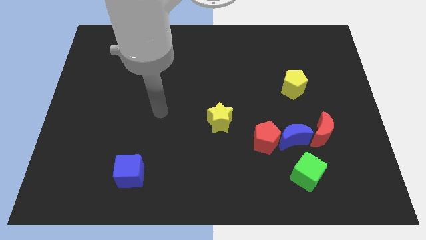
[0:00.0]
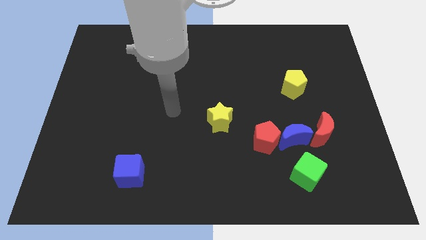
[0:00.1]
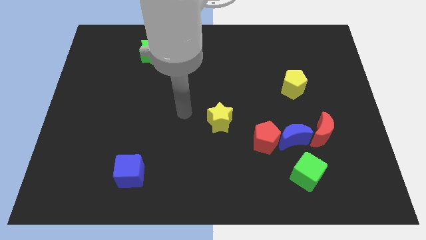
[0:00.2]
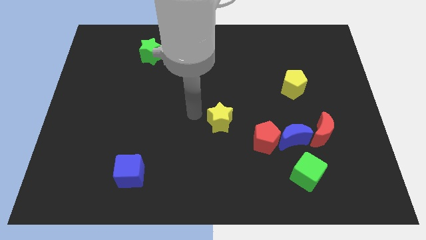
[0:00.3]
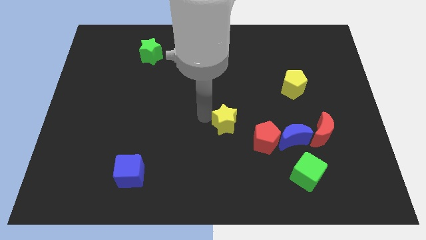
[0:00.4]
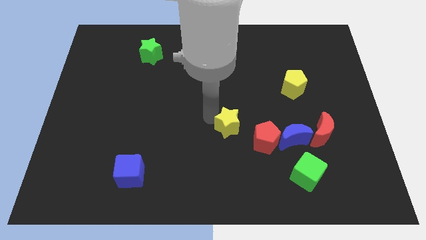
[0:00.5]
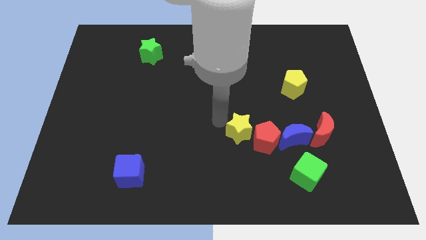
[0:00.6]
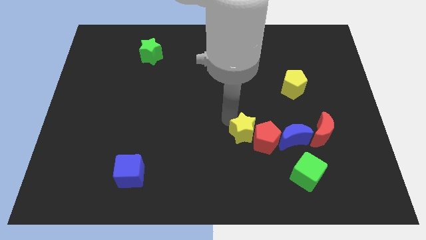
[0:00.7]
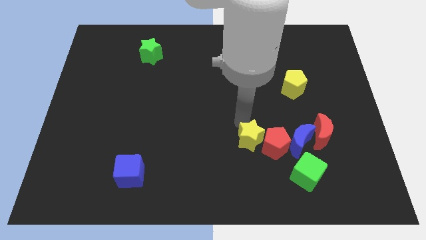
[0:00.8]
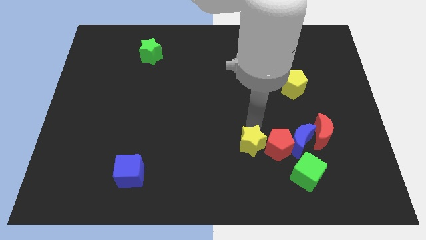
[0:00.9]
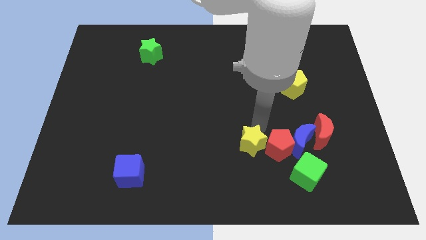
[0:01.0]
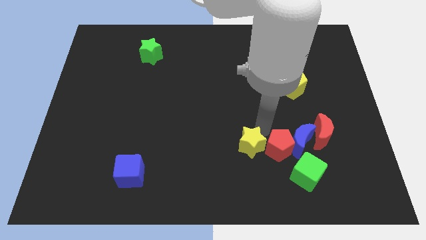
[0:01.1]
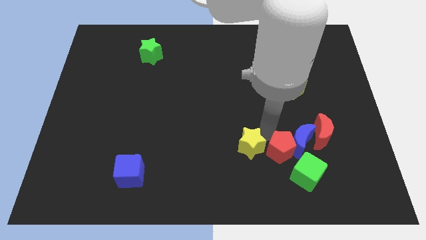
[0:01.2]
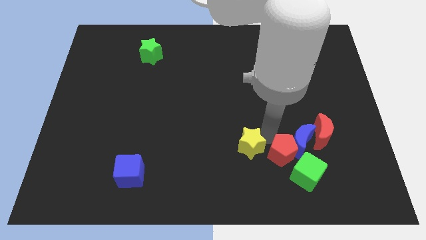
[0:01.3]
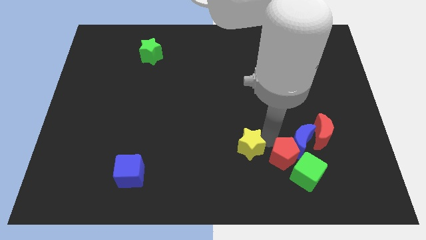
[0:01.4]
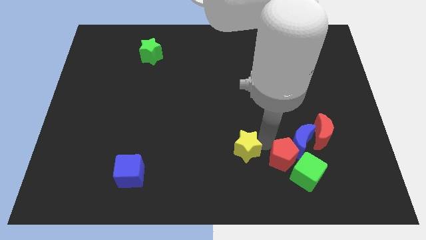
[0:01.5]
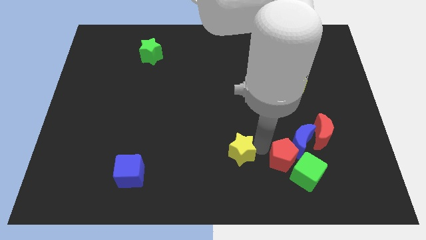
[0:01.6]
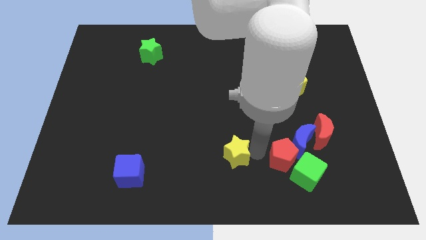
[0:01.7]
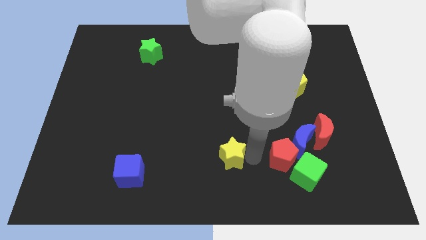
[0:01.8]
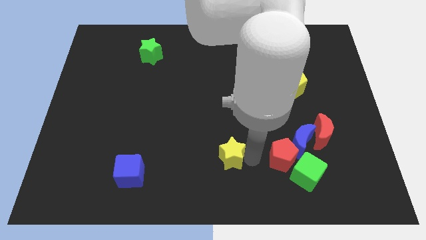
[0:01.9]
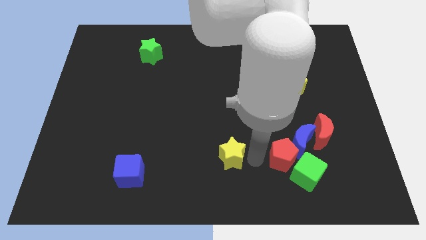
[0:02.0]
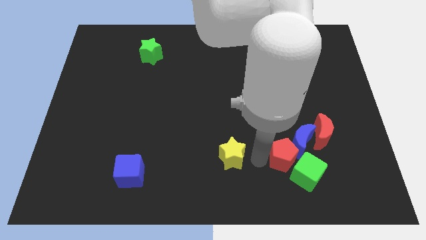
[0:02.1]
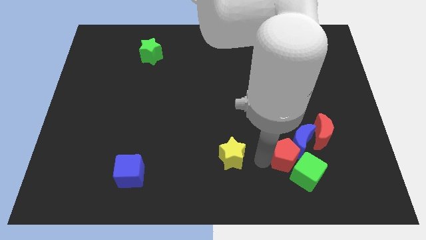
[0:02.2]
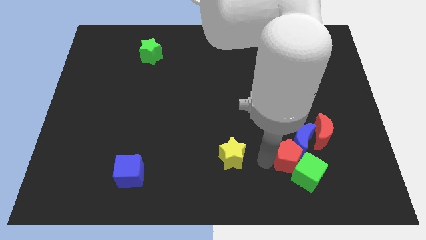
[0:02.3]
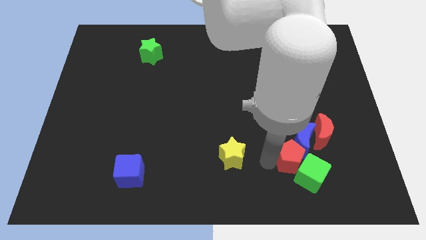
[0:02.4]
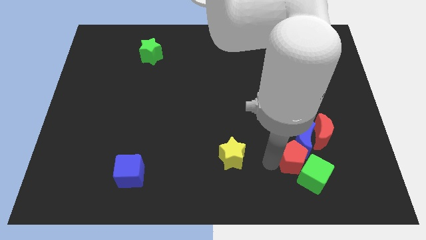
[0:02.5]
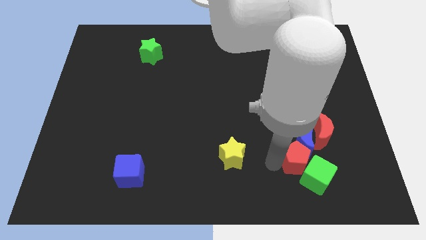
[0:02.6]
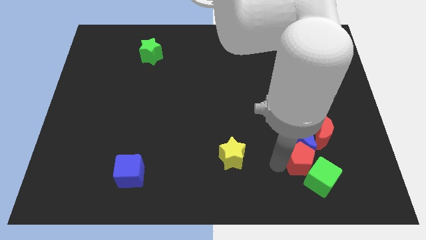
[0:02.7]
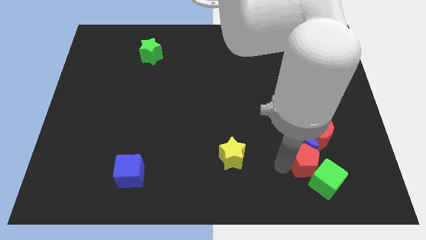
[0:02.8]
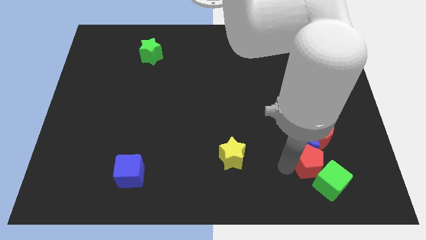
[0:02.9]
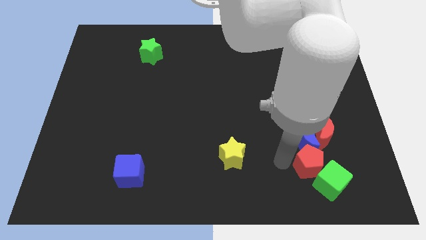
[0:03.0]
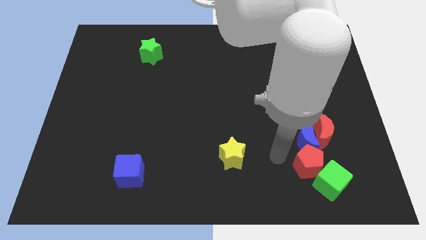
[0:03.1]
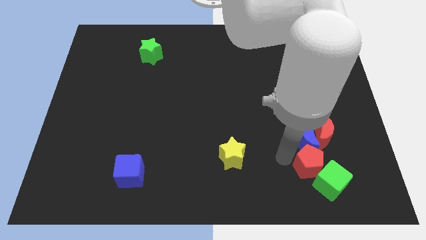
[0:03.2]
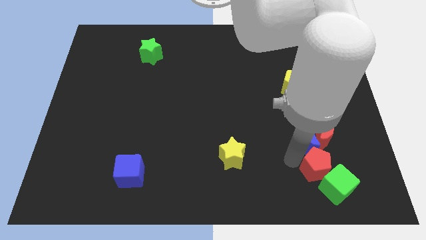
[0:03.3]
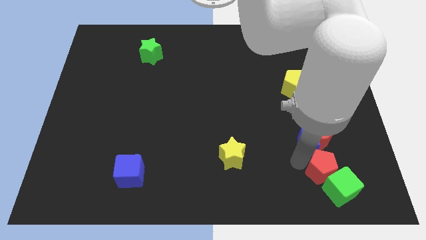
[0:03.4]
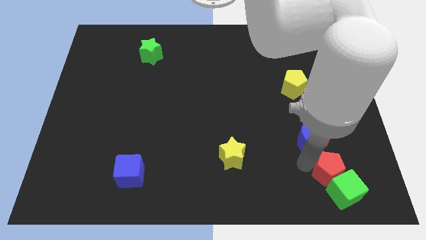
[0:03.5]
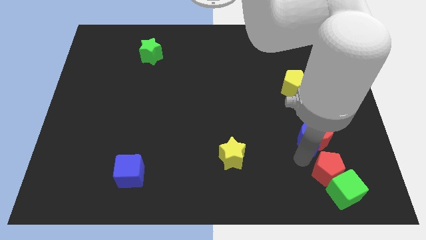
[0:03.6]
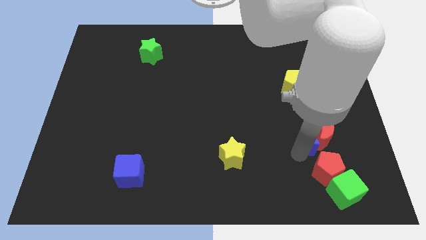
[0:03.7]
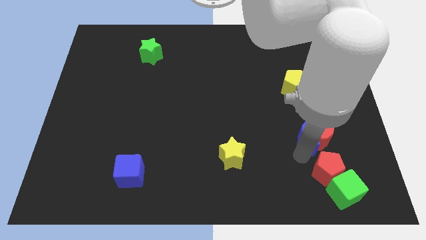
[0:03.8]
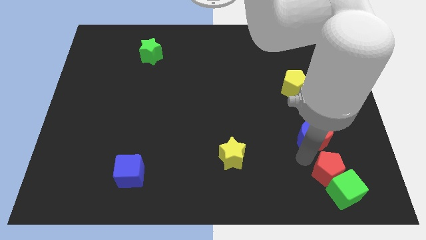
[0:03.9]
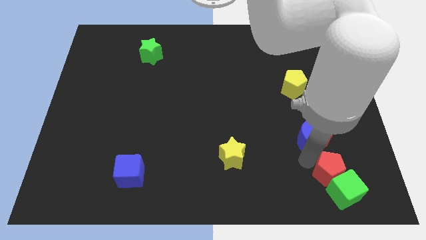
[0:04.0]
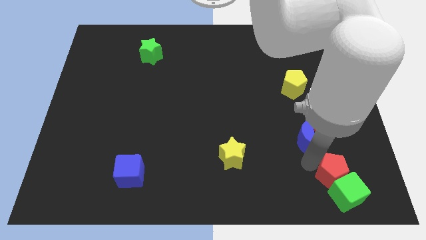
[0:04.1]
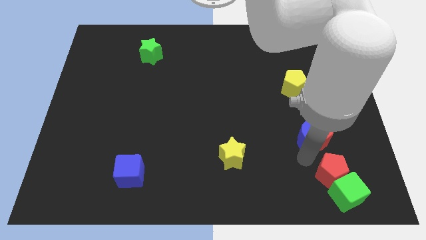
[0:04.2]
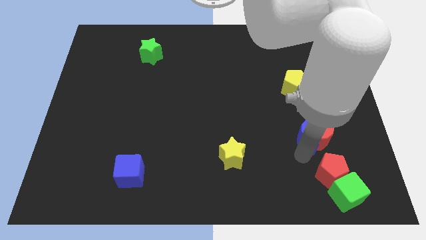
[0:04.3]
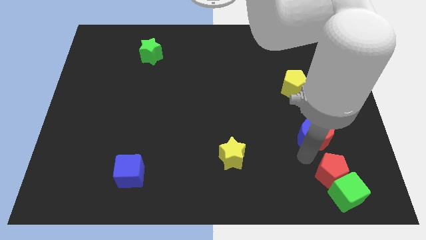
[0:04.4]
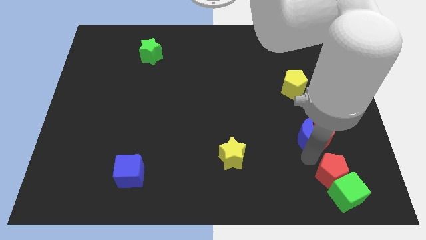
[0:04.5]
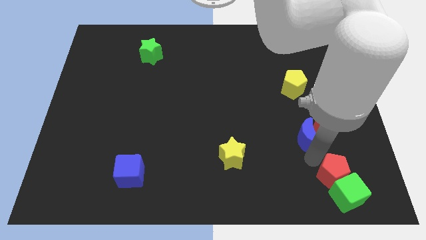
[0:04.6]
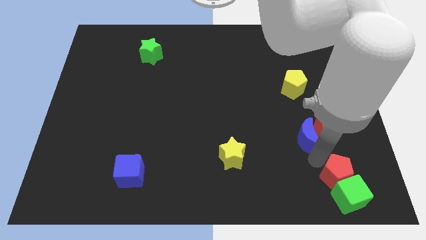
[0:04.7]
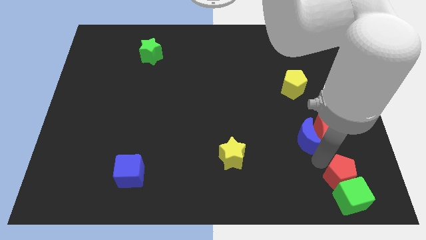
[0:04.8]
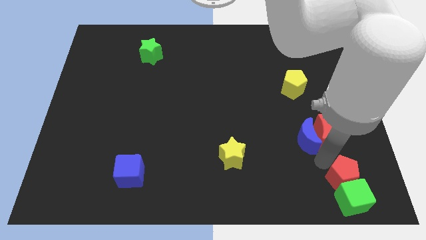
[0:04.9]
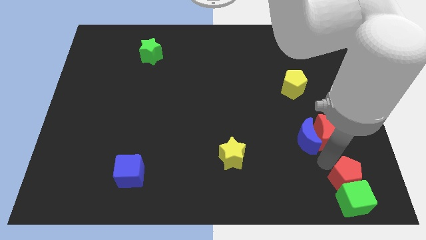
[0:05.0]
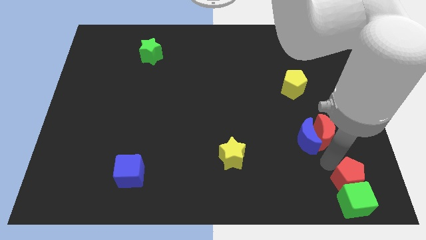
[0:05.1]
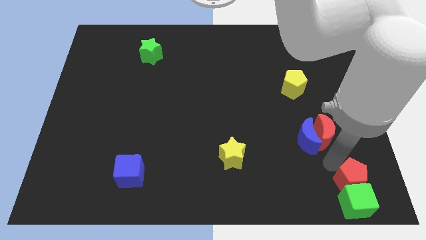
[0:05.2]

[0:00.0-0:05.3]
move the red pentagon to the bottom right corner
